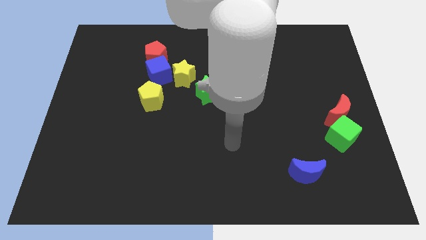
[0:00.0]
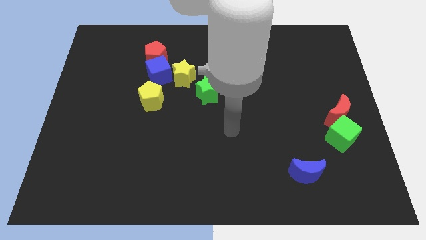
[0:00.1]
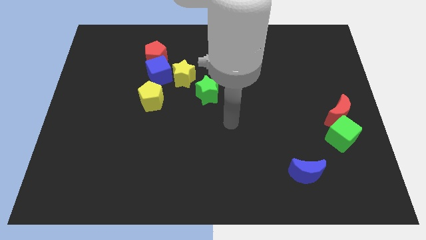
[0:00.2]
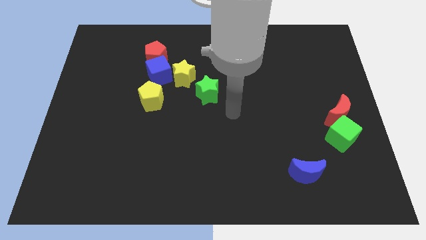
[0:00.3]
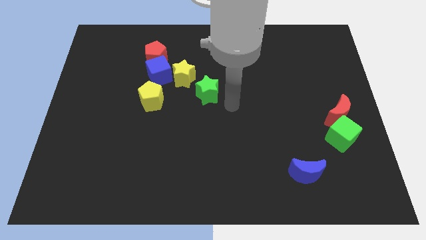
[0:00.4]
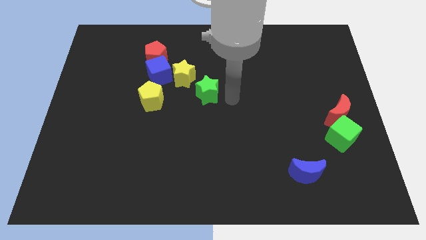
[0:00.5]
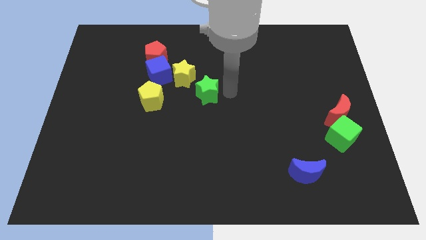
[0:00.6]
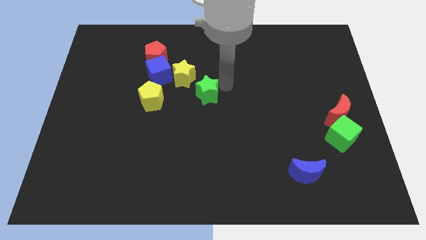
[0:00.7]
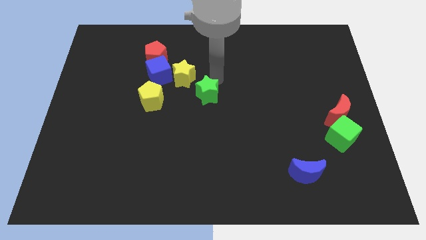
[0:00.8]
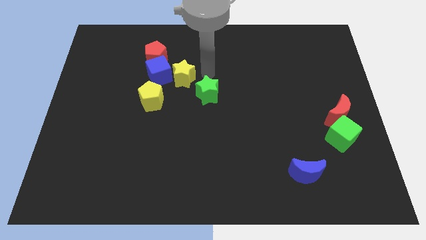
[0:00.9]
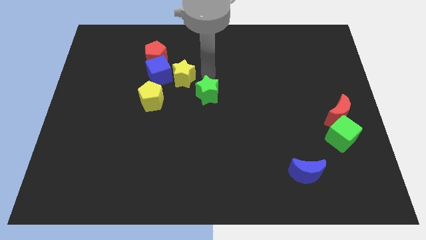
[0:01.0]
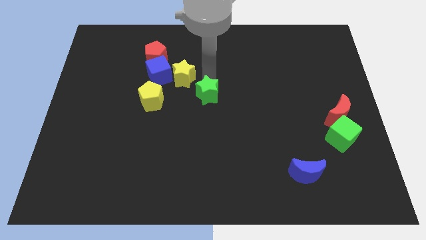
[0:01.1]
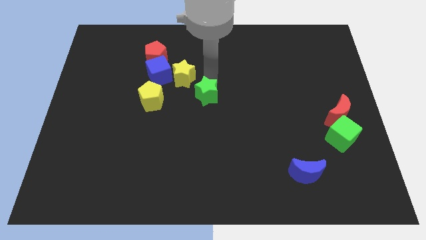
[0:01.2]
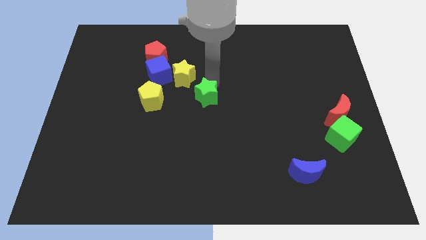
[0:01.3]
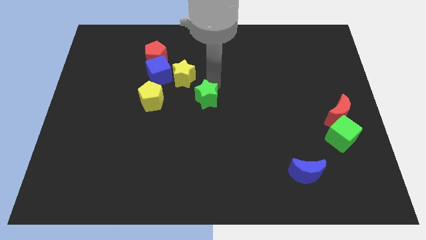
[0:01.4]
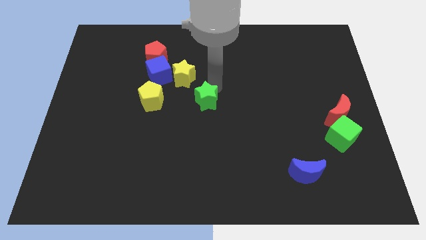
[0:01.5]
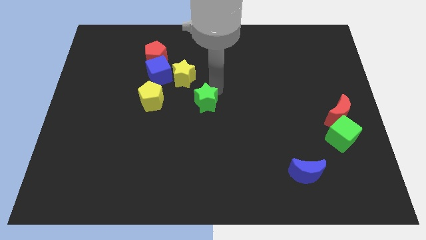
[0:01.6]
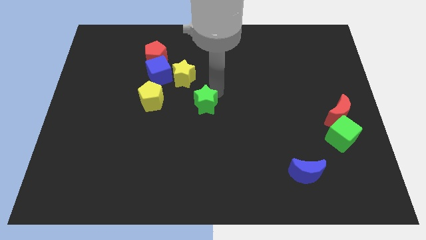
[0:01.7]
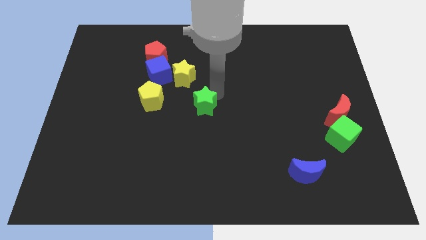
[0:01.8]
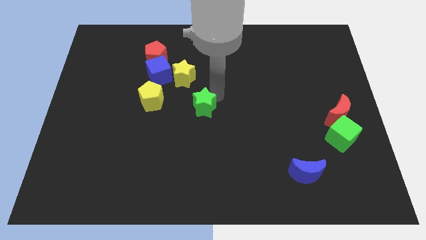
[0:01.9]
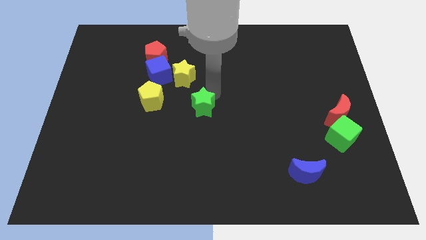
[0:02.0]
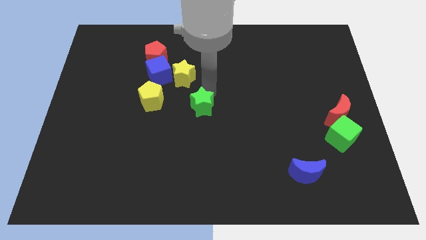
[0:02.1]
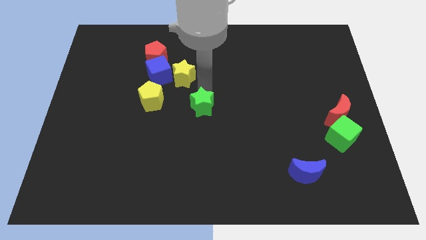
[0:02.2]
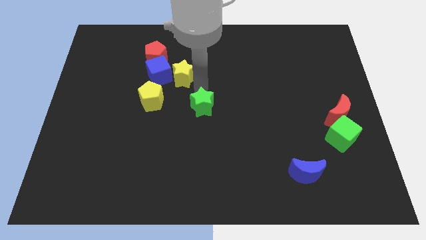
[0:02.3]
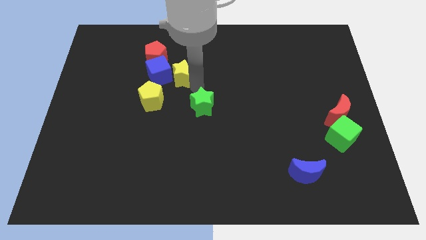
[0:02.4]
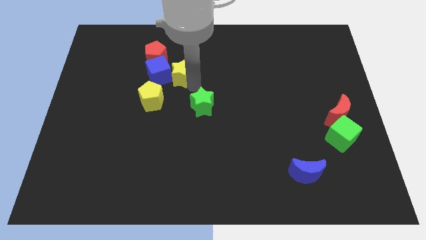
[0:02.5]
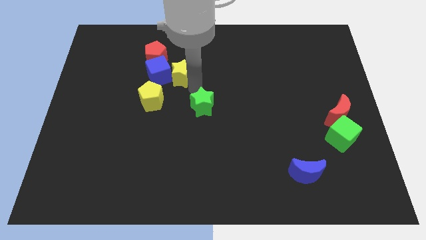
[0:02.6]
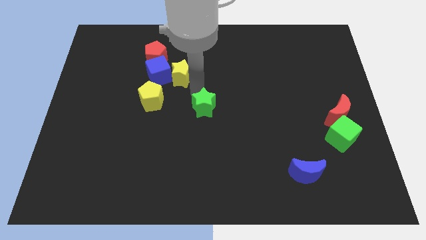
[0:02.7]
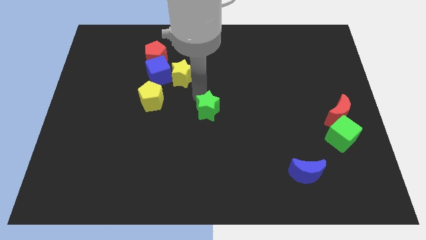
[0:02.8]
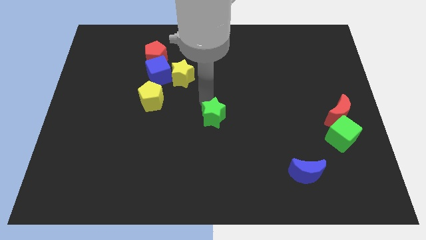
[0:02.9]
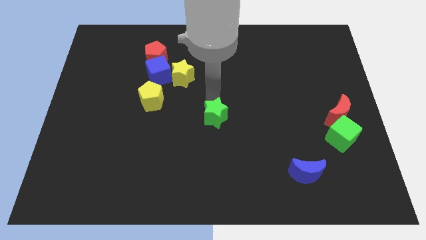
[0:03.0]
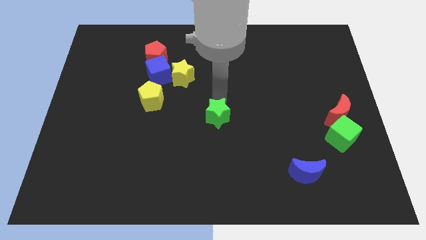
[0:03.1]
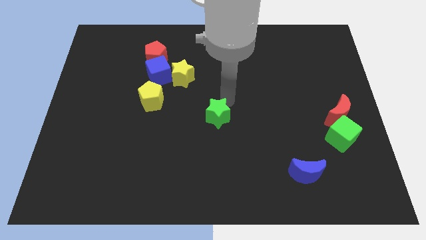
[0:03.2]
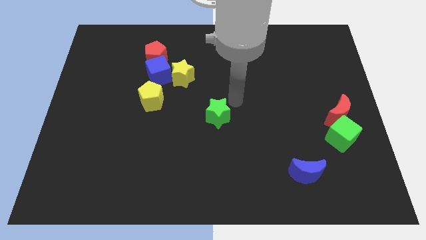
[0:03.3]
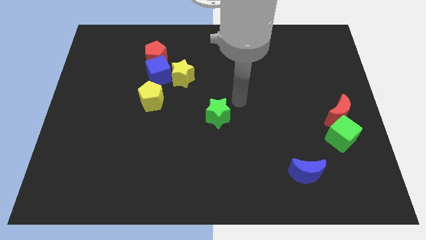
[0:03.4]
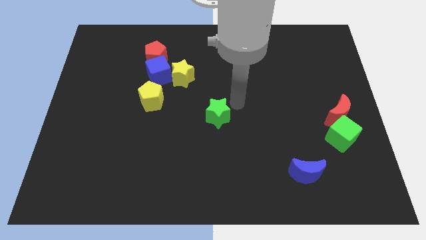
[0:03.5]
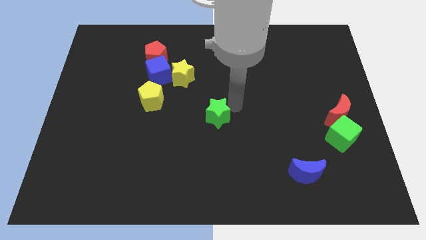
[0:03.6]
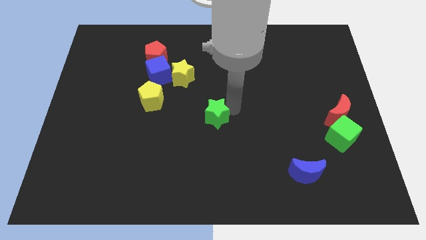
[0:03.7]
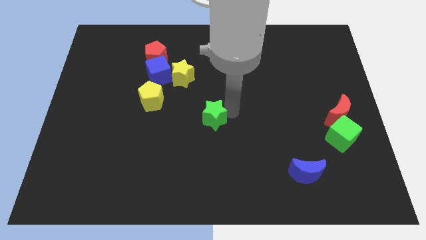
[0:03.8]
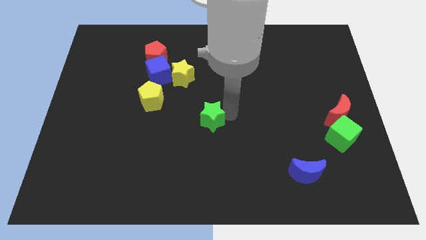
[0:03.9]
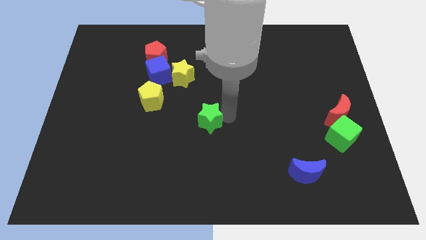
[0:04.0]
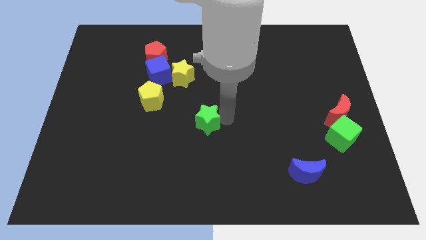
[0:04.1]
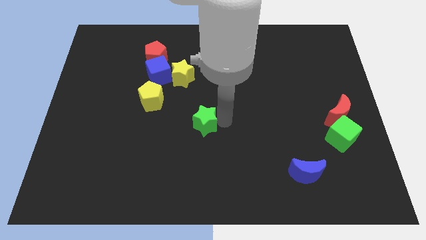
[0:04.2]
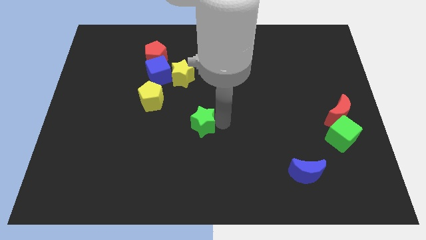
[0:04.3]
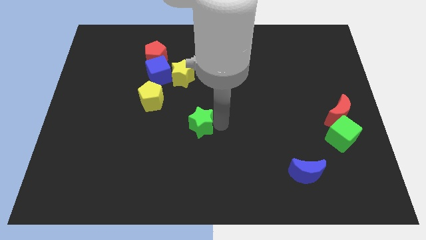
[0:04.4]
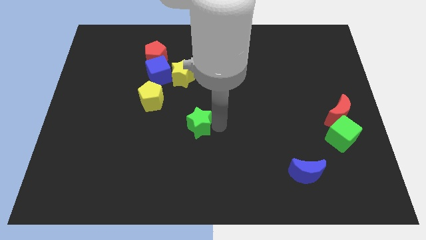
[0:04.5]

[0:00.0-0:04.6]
push the green star diagonally down and to the left somewhat

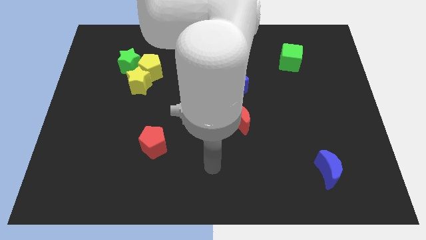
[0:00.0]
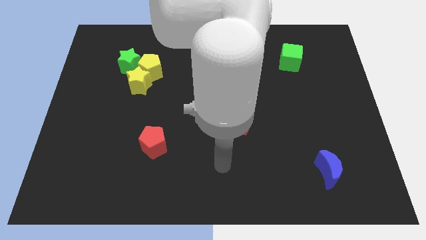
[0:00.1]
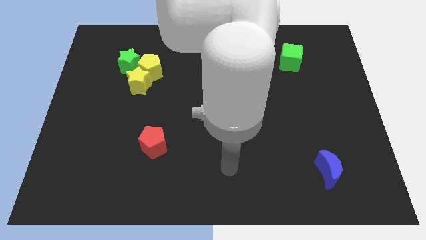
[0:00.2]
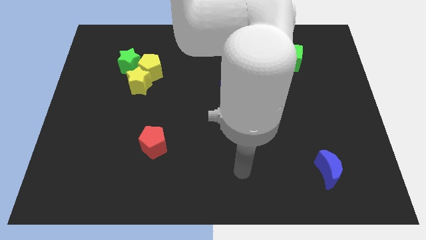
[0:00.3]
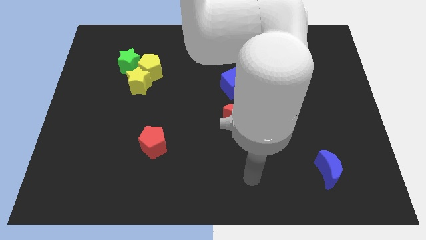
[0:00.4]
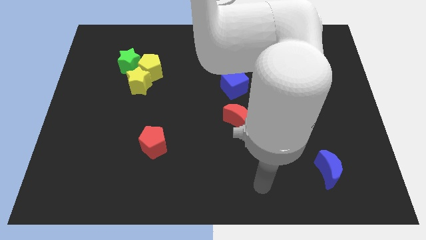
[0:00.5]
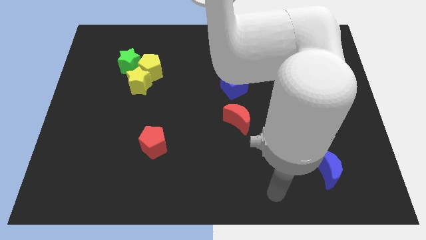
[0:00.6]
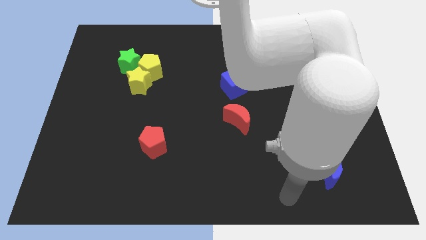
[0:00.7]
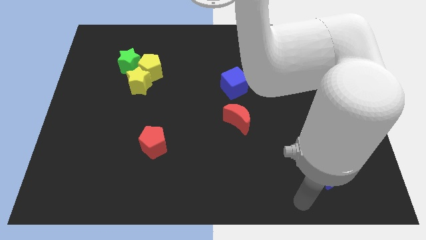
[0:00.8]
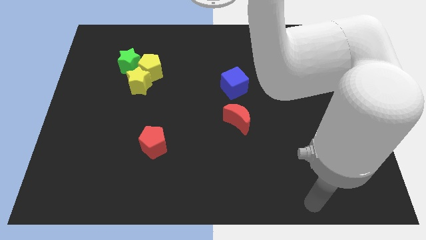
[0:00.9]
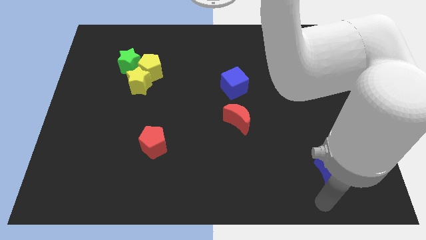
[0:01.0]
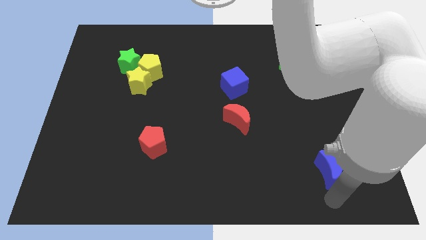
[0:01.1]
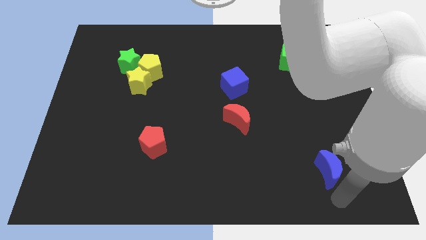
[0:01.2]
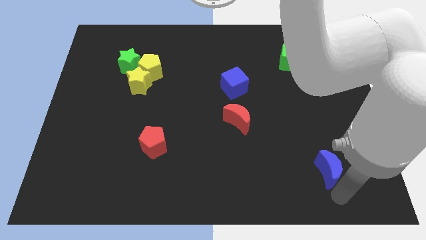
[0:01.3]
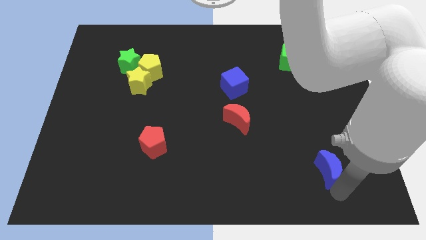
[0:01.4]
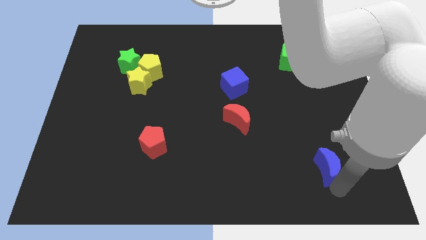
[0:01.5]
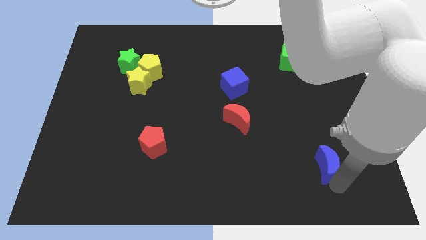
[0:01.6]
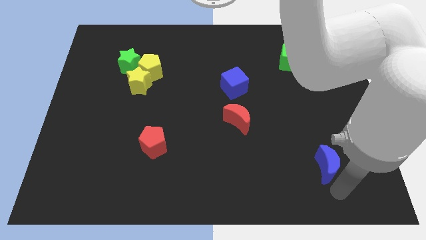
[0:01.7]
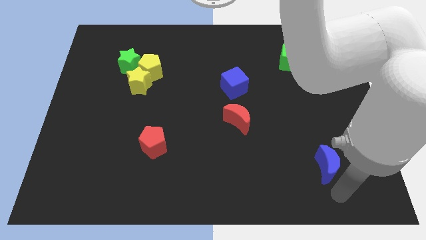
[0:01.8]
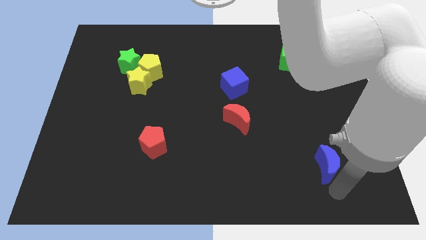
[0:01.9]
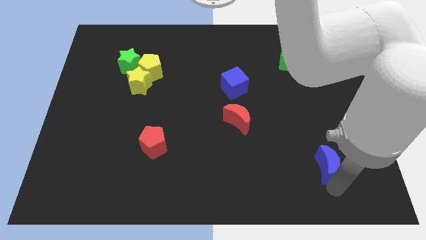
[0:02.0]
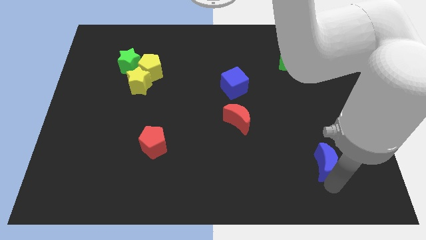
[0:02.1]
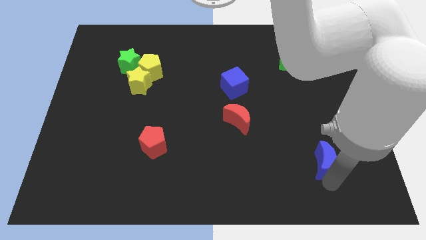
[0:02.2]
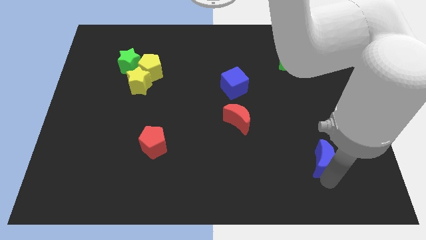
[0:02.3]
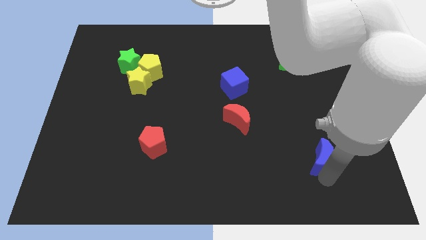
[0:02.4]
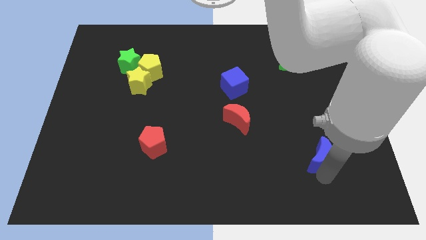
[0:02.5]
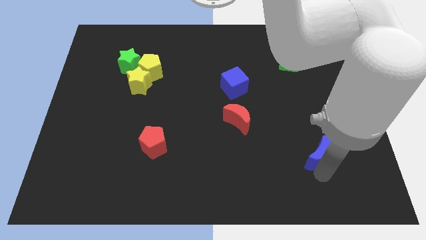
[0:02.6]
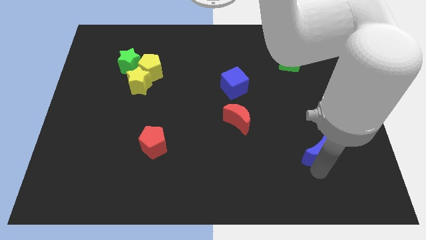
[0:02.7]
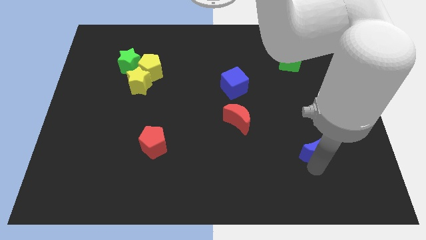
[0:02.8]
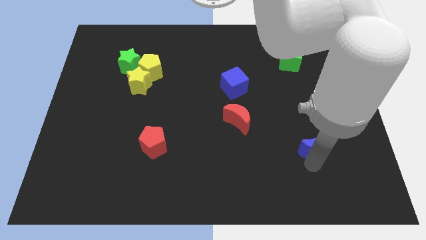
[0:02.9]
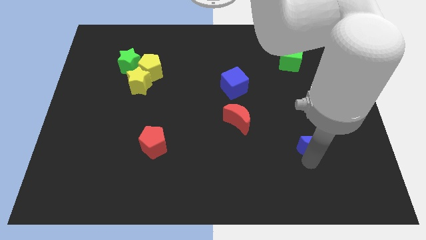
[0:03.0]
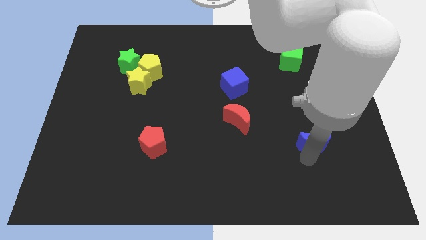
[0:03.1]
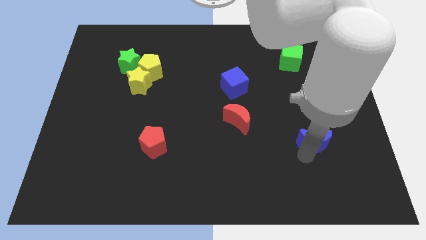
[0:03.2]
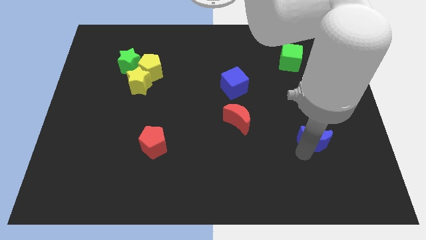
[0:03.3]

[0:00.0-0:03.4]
slide the blue moon slightly up
